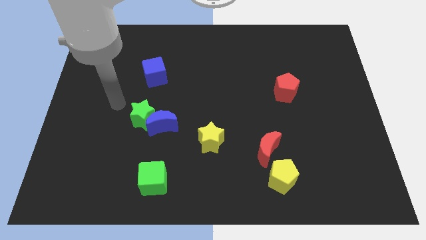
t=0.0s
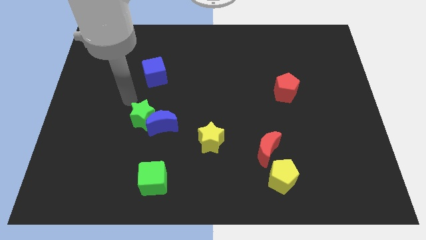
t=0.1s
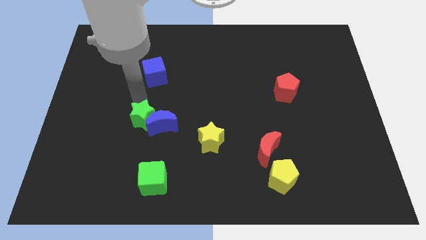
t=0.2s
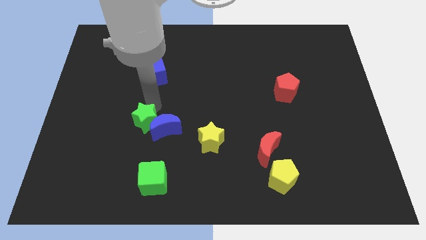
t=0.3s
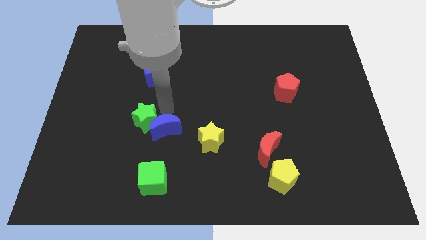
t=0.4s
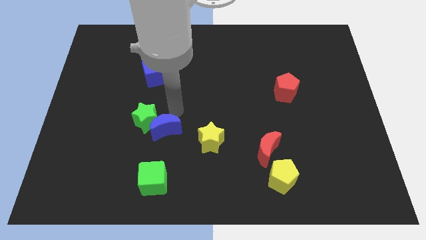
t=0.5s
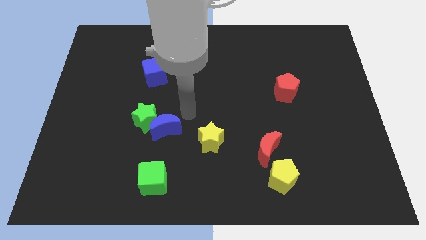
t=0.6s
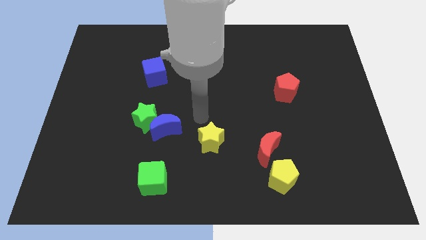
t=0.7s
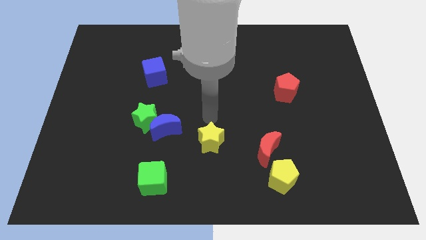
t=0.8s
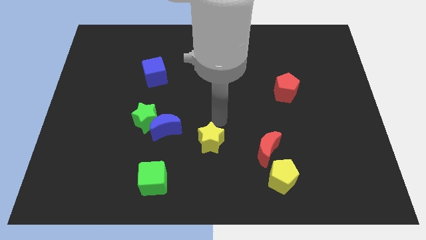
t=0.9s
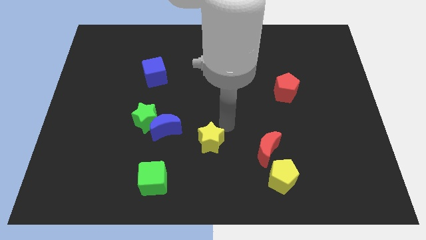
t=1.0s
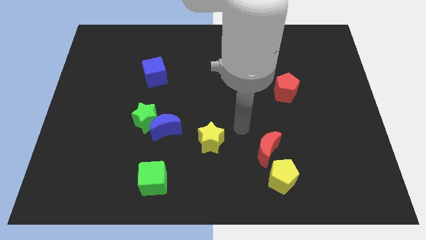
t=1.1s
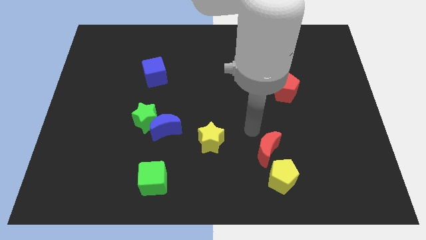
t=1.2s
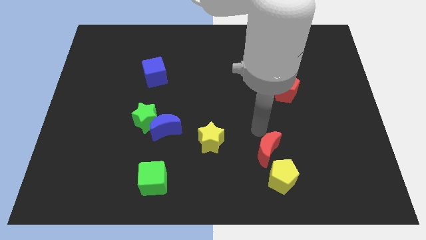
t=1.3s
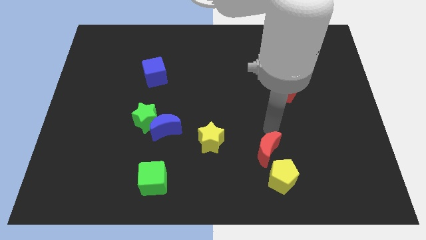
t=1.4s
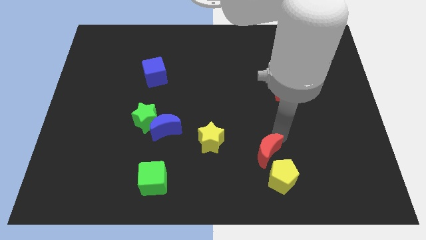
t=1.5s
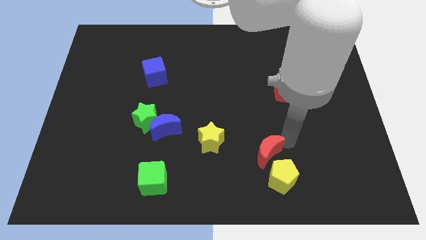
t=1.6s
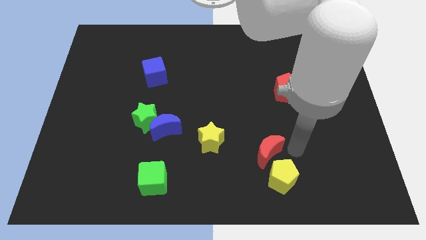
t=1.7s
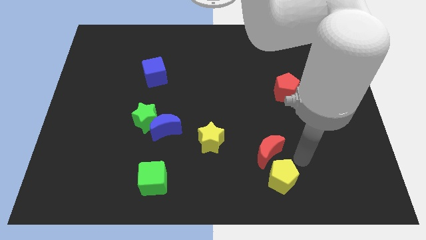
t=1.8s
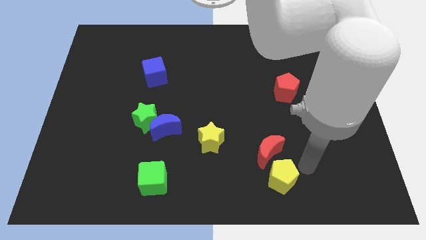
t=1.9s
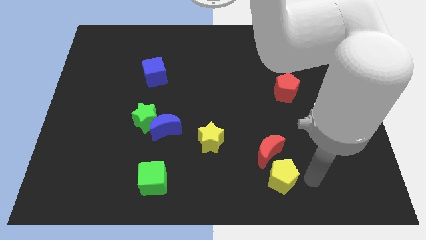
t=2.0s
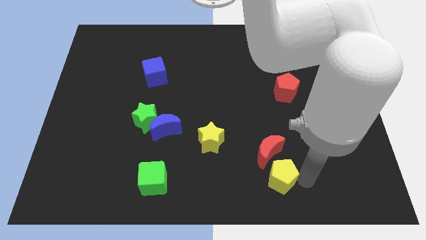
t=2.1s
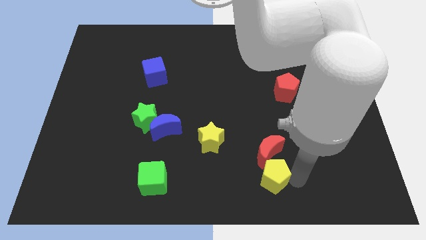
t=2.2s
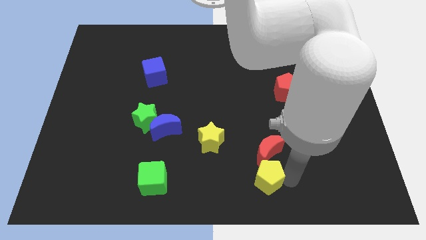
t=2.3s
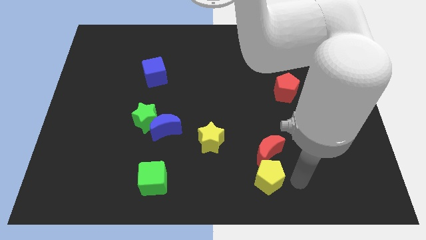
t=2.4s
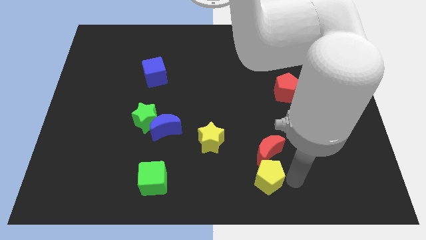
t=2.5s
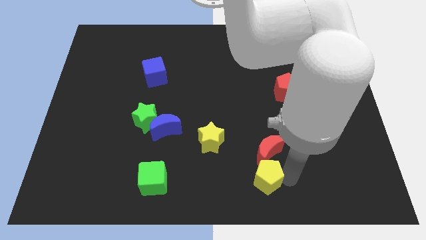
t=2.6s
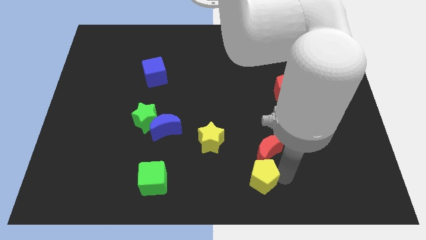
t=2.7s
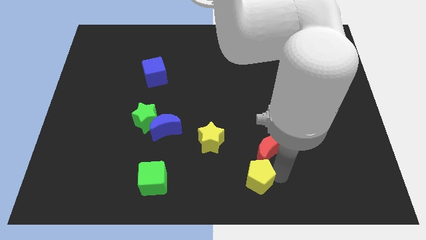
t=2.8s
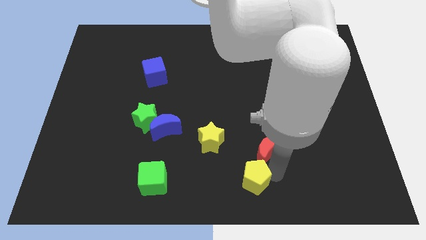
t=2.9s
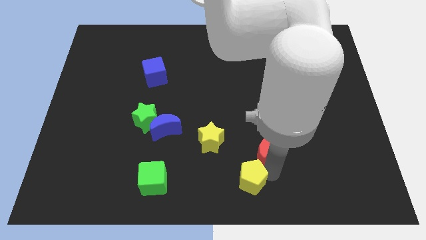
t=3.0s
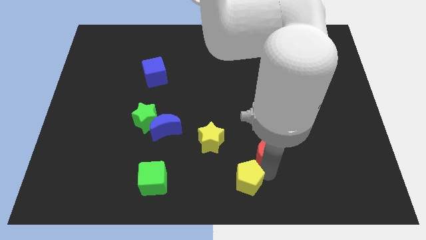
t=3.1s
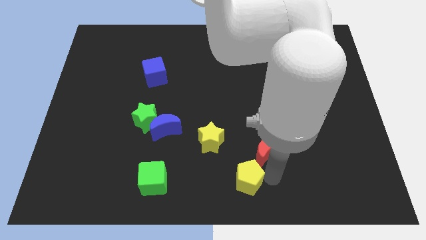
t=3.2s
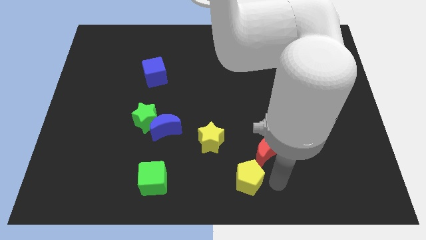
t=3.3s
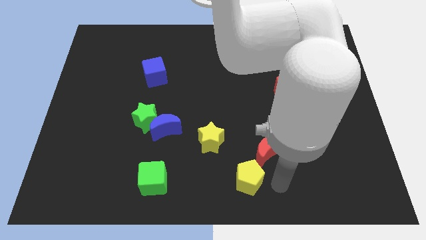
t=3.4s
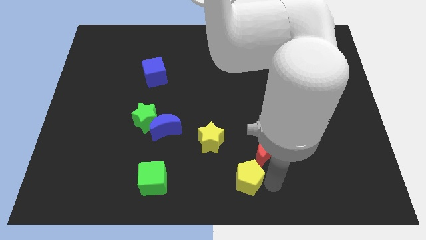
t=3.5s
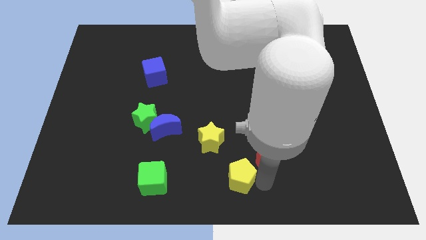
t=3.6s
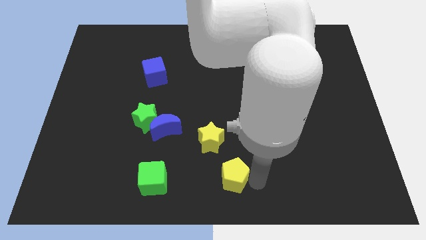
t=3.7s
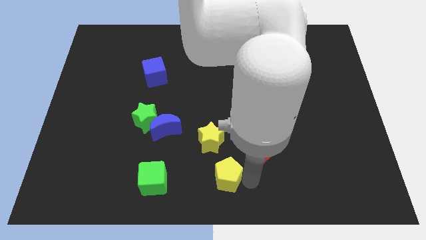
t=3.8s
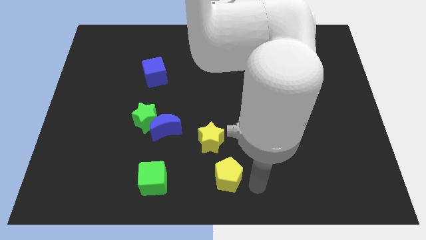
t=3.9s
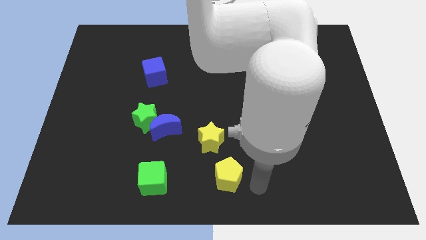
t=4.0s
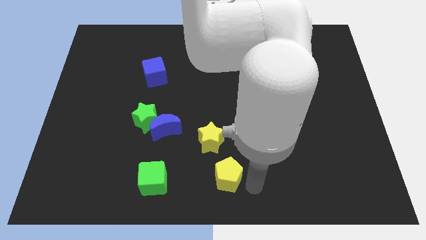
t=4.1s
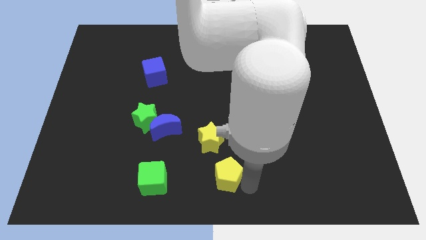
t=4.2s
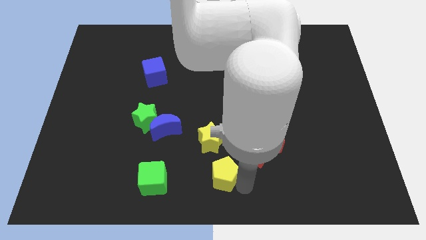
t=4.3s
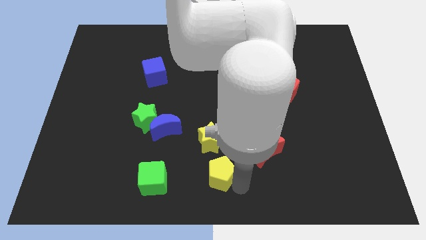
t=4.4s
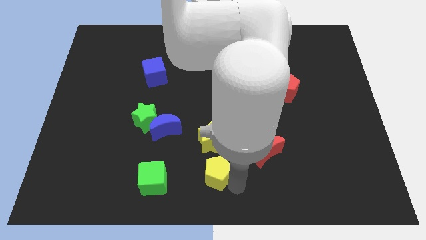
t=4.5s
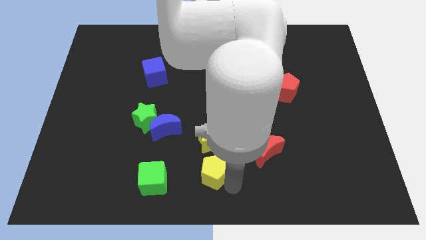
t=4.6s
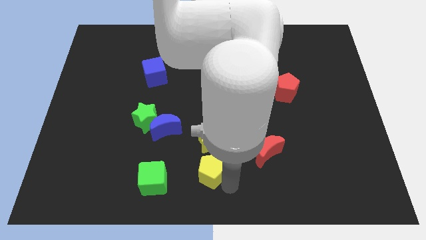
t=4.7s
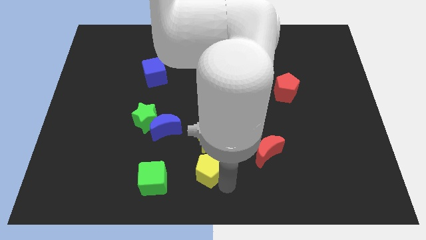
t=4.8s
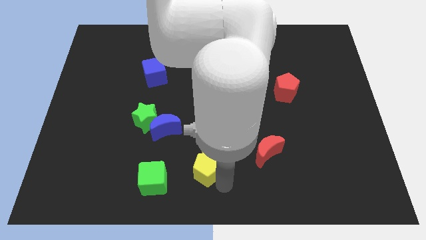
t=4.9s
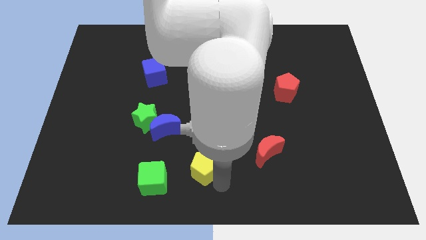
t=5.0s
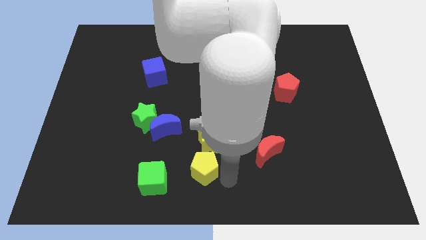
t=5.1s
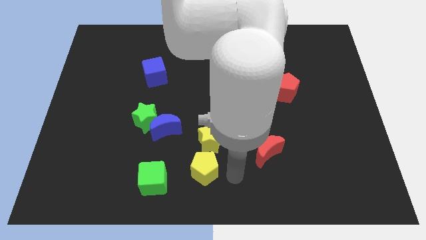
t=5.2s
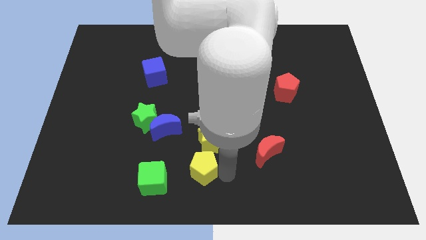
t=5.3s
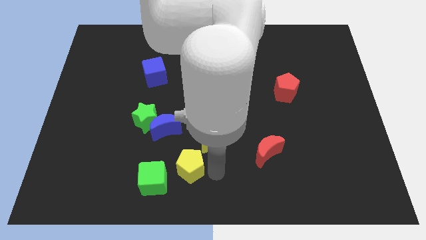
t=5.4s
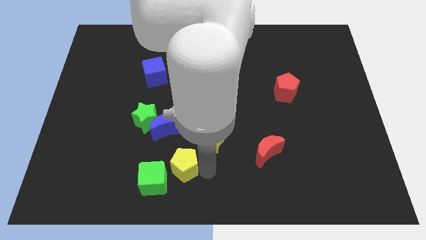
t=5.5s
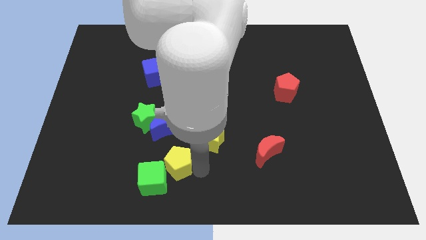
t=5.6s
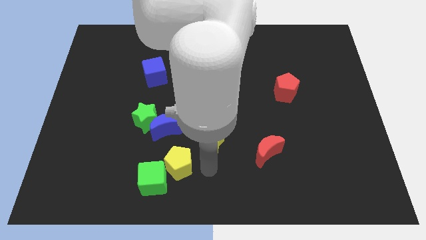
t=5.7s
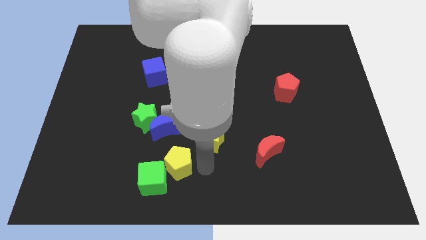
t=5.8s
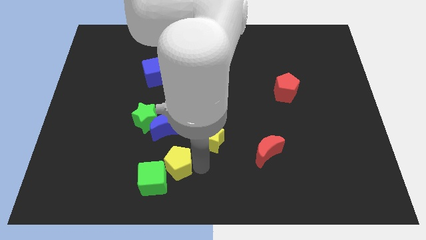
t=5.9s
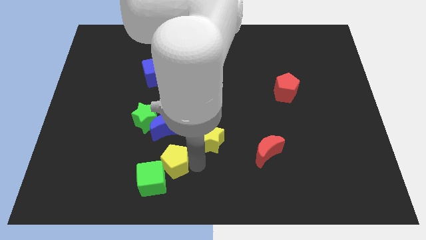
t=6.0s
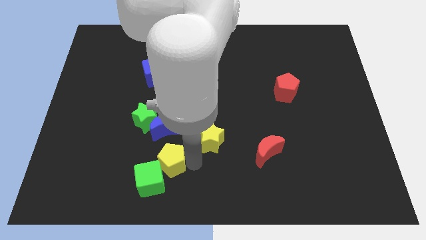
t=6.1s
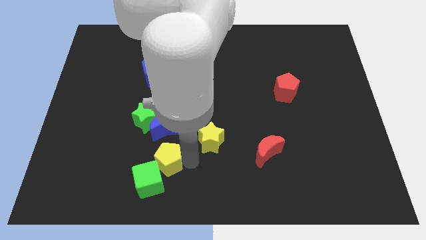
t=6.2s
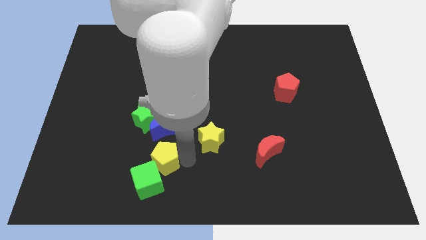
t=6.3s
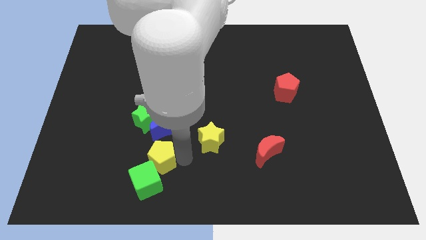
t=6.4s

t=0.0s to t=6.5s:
put the yellow pentagon to the bottom side of the green star

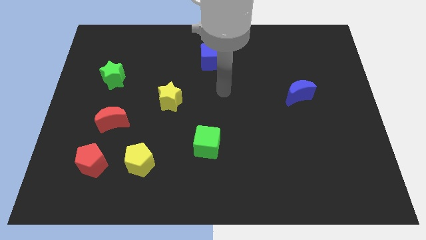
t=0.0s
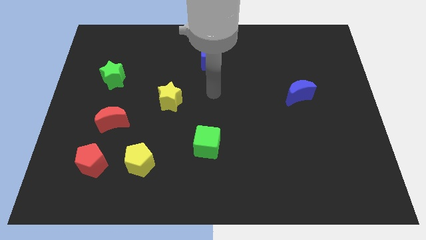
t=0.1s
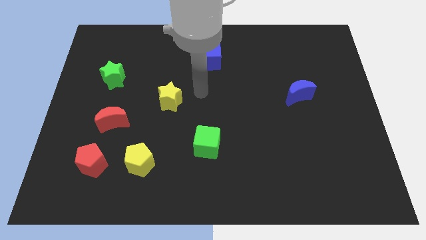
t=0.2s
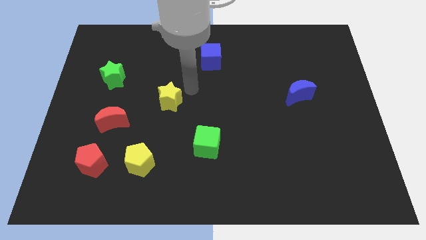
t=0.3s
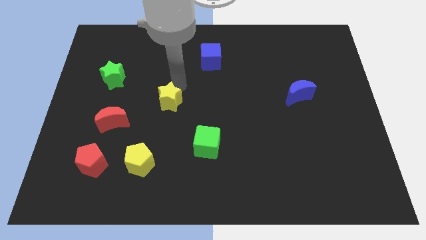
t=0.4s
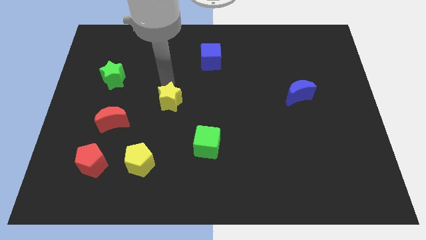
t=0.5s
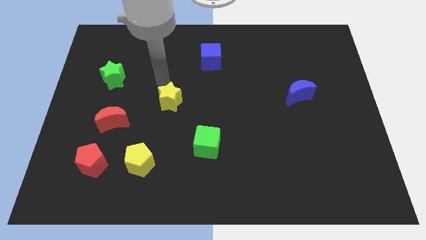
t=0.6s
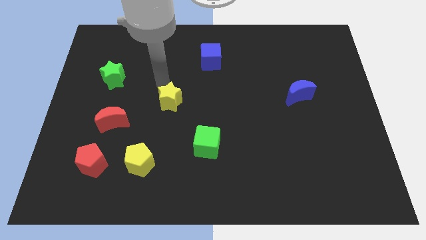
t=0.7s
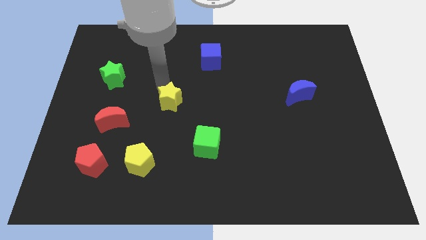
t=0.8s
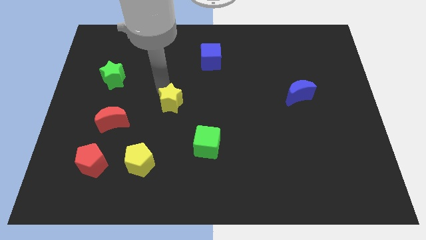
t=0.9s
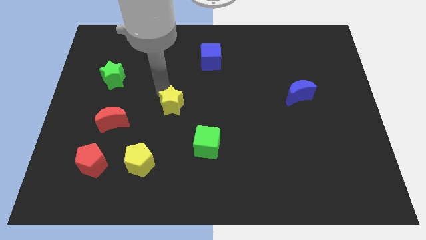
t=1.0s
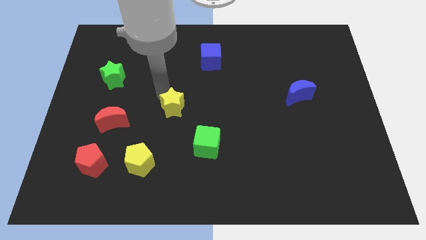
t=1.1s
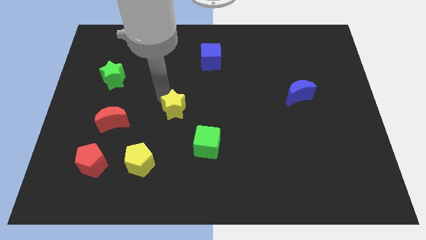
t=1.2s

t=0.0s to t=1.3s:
put the yellow star diagonally up and to the left of the green cube
